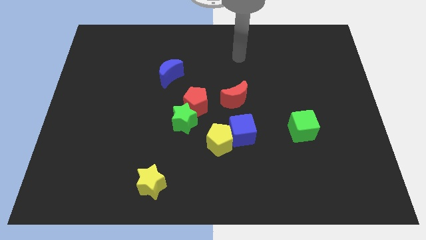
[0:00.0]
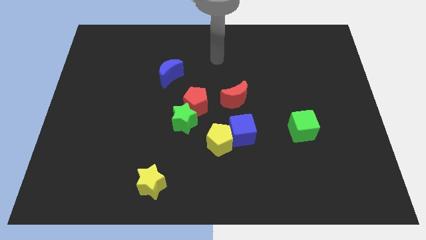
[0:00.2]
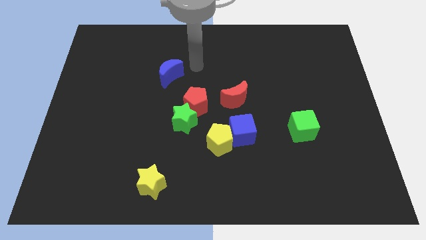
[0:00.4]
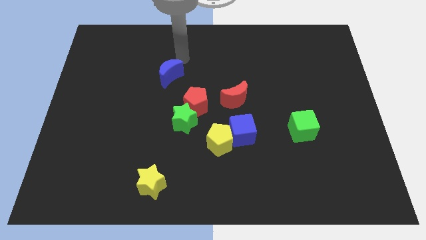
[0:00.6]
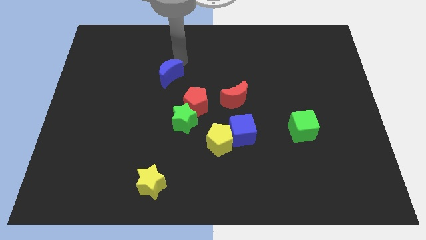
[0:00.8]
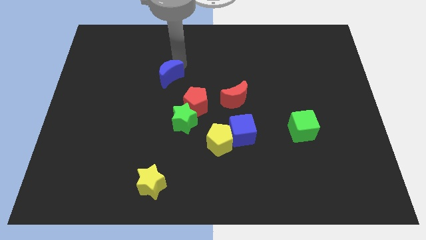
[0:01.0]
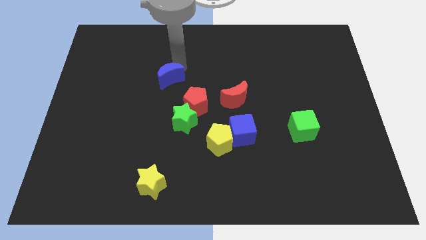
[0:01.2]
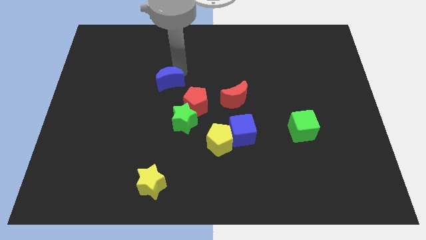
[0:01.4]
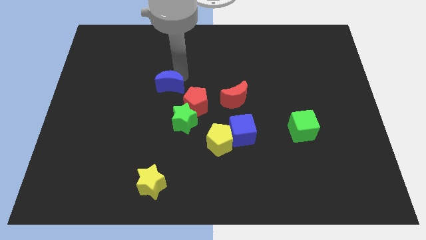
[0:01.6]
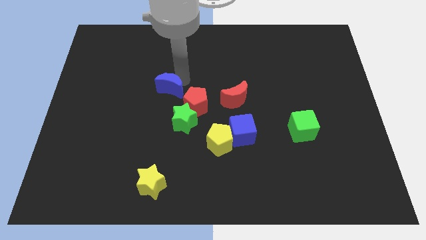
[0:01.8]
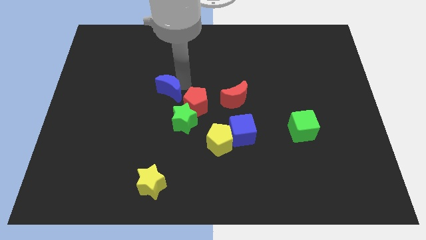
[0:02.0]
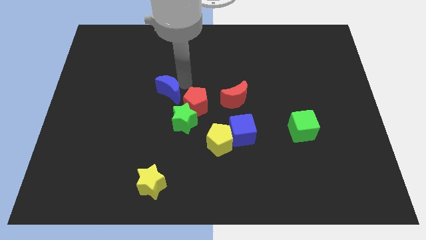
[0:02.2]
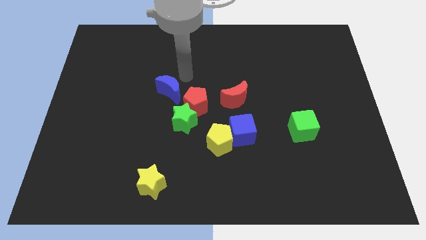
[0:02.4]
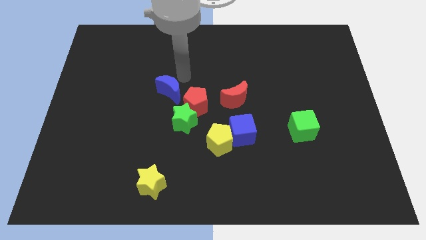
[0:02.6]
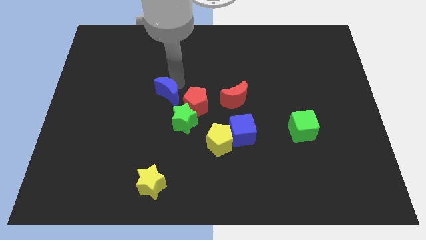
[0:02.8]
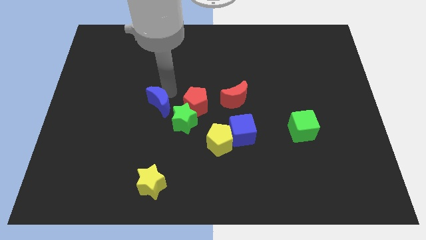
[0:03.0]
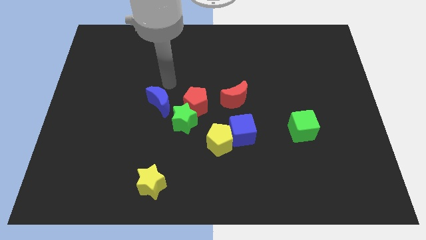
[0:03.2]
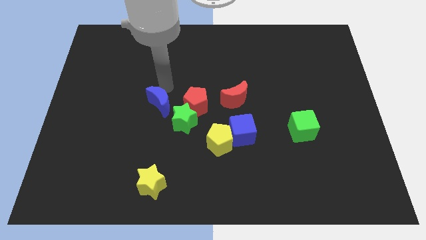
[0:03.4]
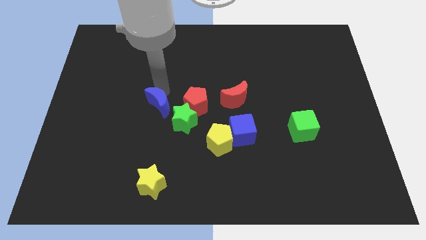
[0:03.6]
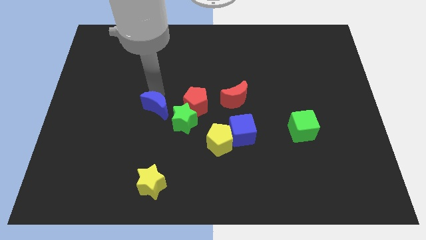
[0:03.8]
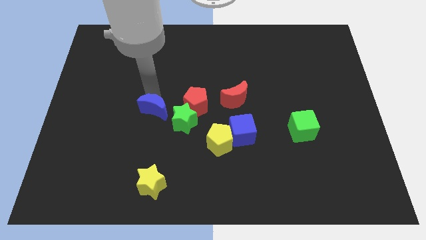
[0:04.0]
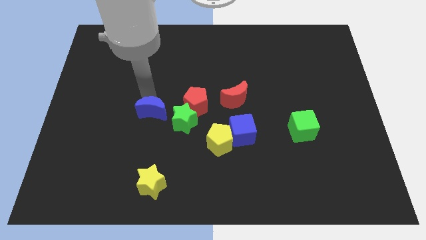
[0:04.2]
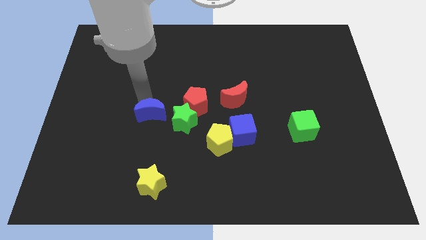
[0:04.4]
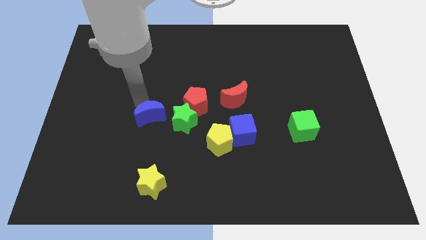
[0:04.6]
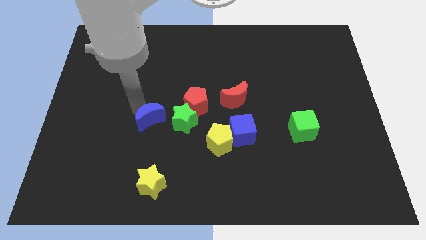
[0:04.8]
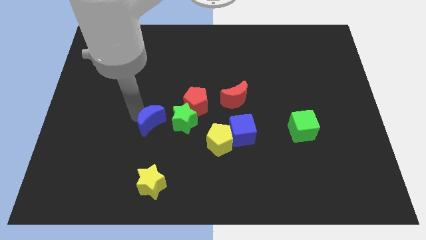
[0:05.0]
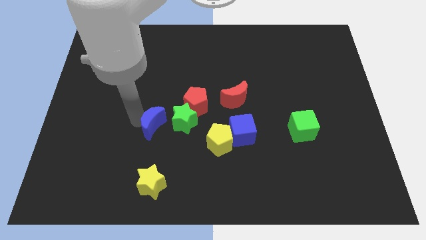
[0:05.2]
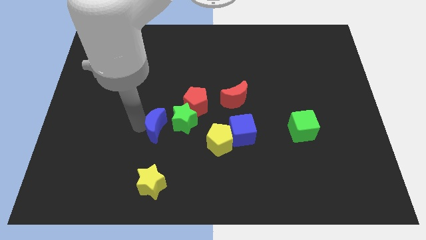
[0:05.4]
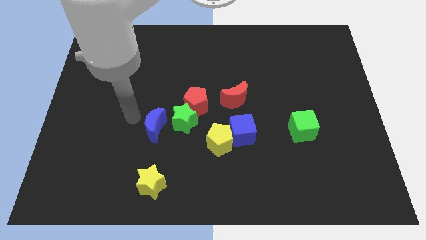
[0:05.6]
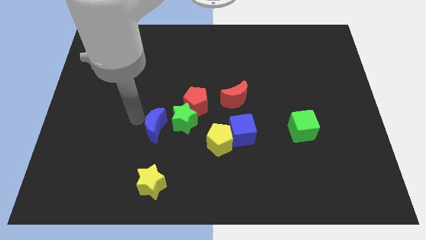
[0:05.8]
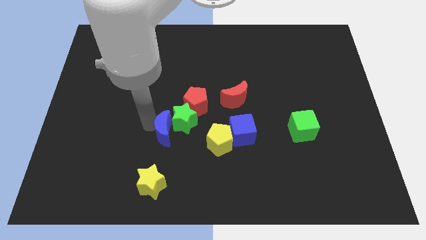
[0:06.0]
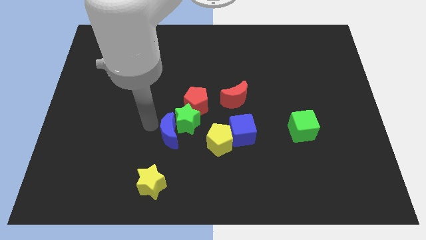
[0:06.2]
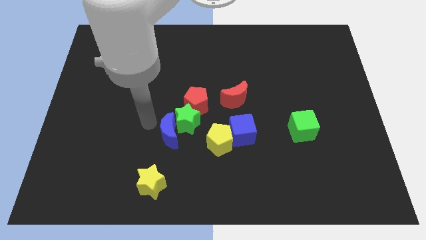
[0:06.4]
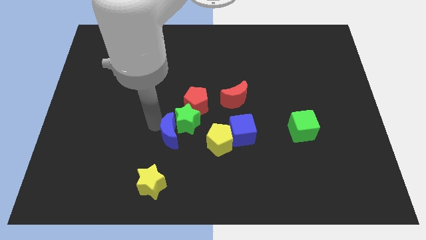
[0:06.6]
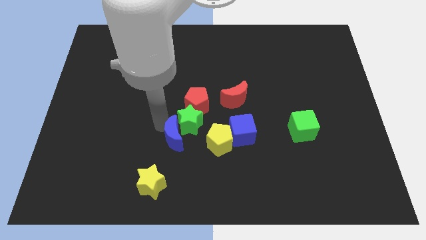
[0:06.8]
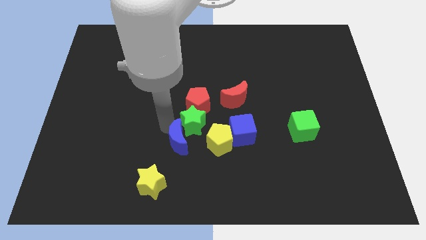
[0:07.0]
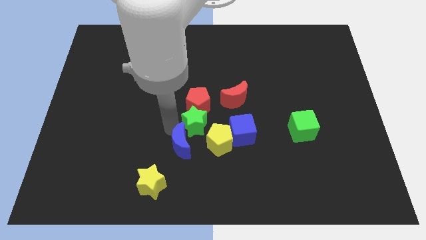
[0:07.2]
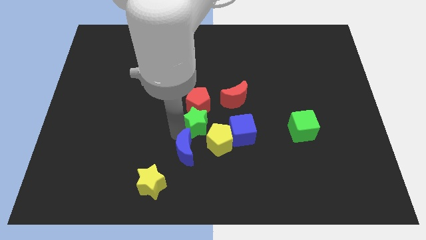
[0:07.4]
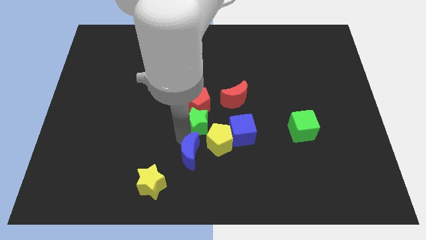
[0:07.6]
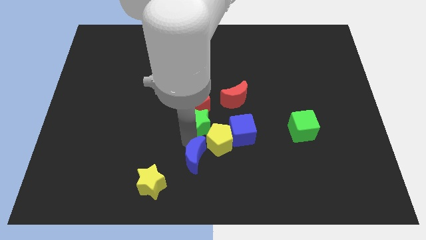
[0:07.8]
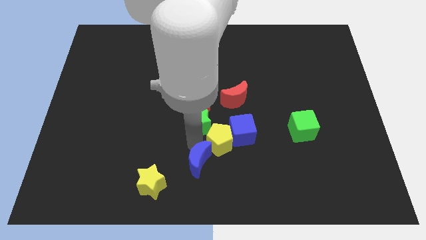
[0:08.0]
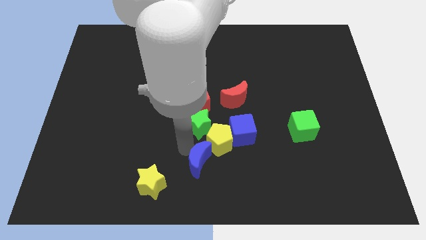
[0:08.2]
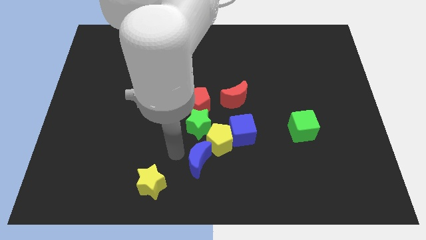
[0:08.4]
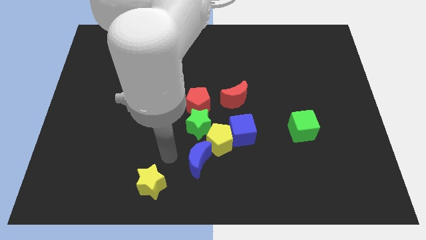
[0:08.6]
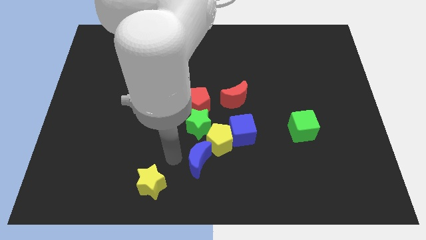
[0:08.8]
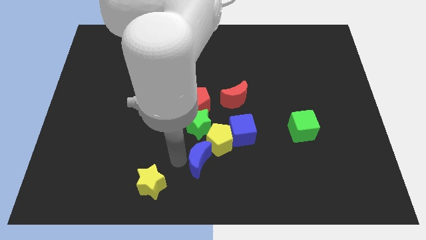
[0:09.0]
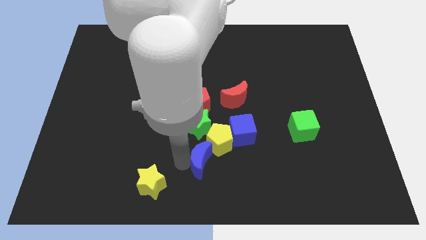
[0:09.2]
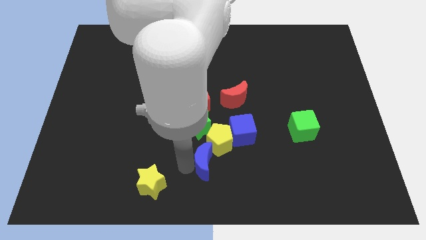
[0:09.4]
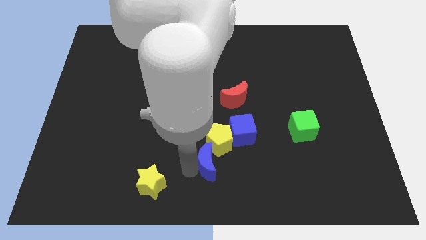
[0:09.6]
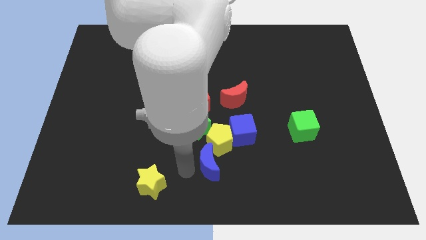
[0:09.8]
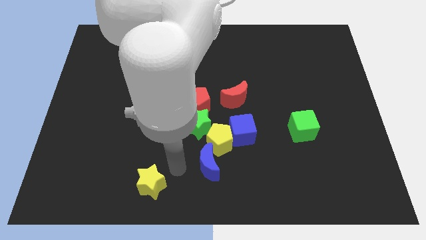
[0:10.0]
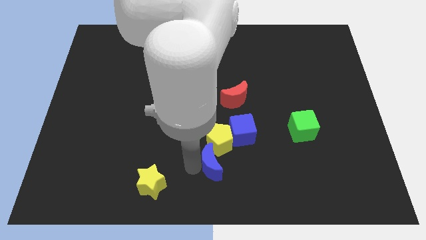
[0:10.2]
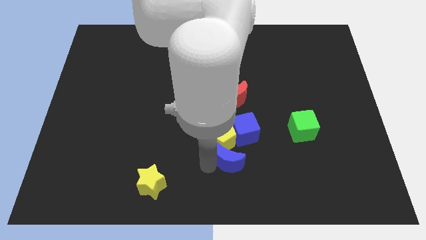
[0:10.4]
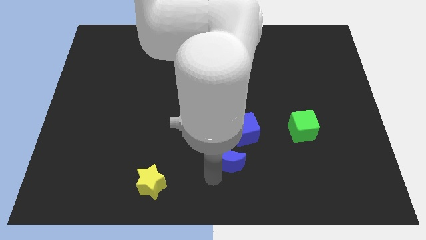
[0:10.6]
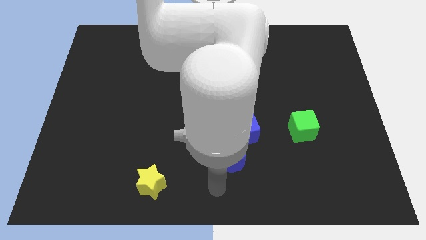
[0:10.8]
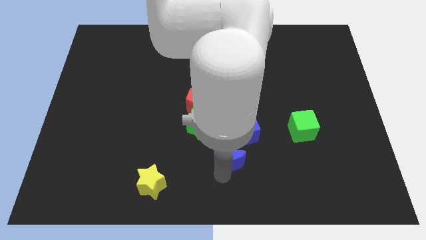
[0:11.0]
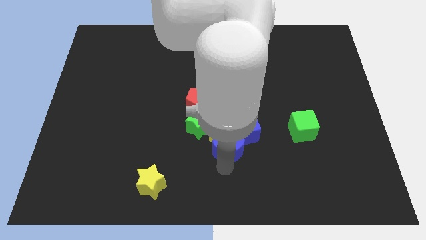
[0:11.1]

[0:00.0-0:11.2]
slide the blue moon to the bottom of the red moon

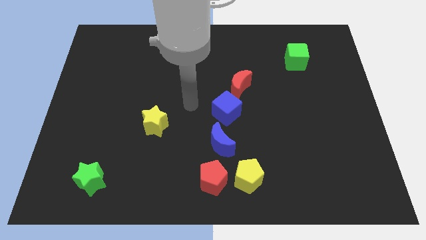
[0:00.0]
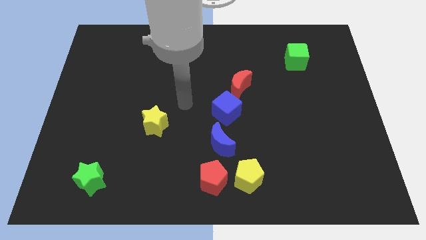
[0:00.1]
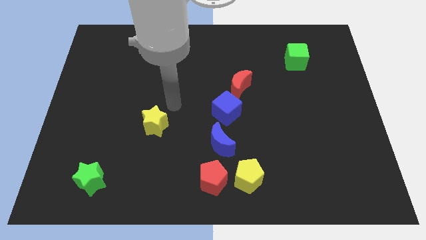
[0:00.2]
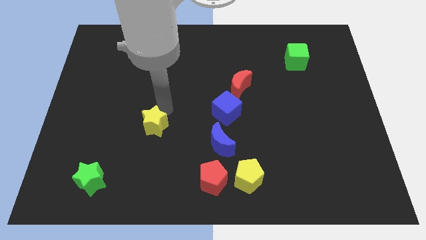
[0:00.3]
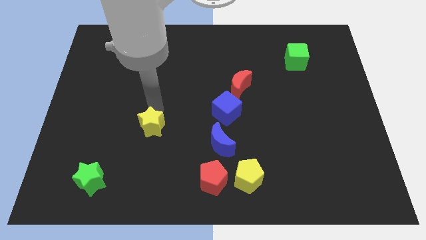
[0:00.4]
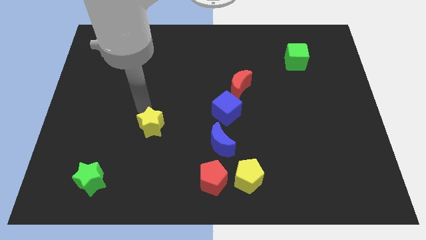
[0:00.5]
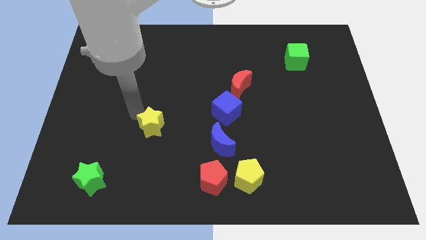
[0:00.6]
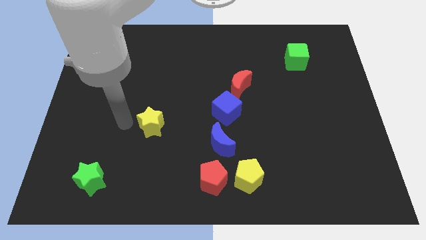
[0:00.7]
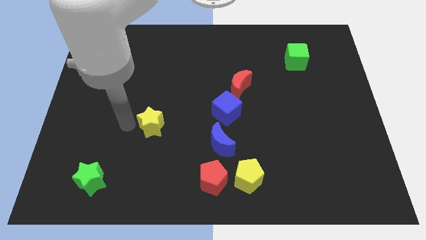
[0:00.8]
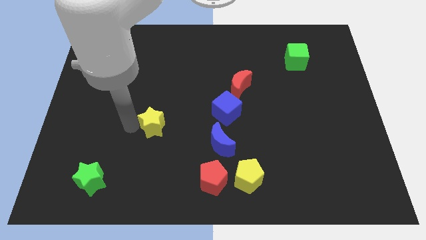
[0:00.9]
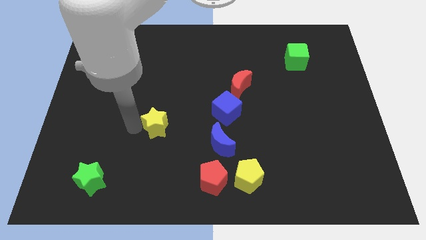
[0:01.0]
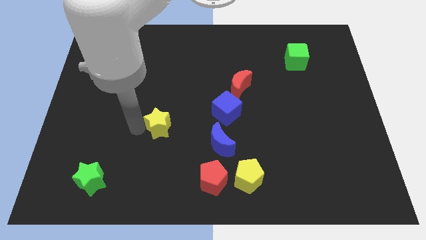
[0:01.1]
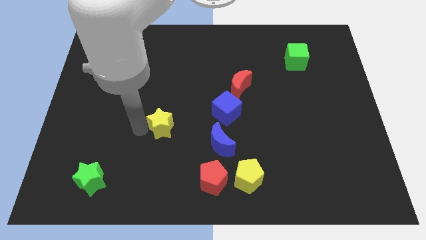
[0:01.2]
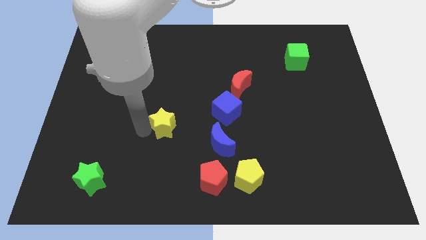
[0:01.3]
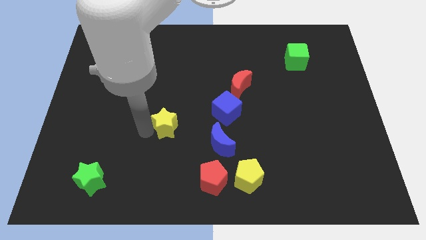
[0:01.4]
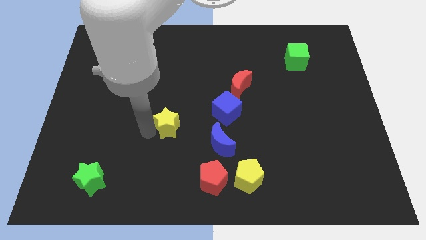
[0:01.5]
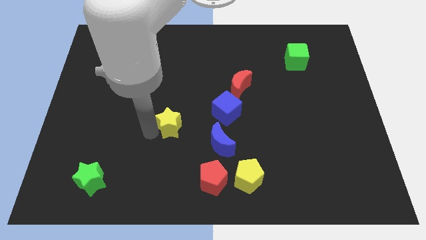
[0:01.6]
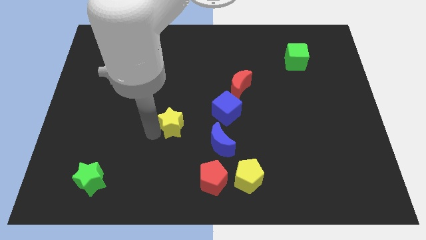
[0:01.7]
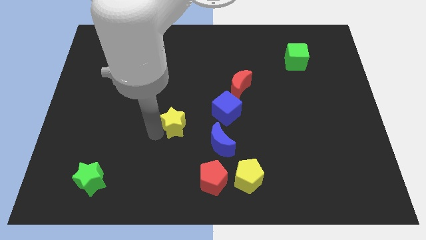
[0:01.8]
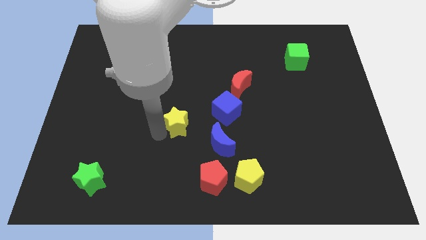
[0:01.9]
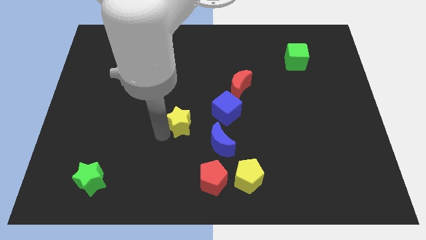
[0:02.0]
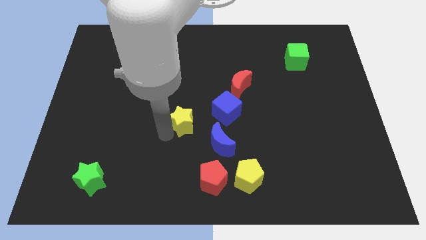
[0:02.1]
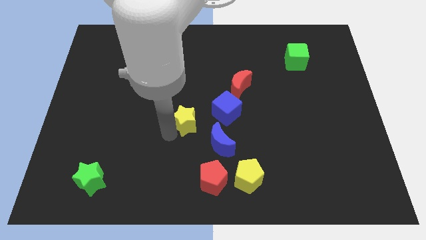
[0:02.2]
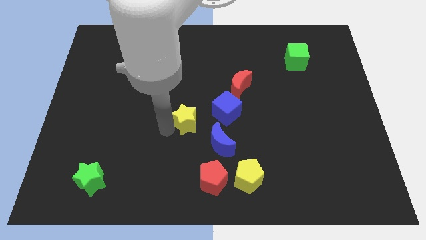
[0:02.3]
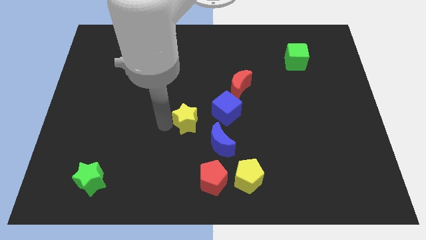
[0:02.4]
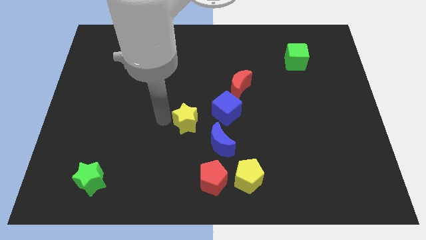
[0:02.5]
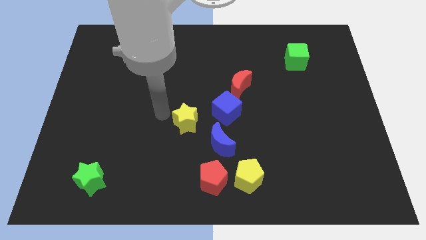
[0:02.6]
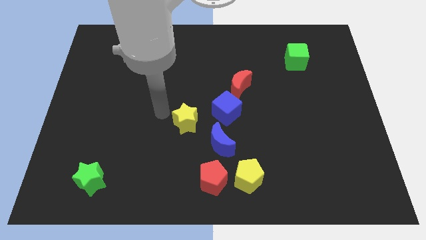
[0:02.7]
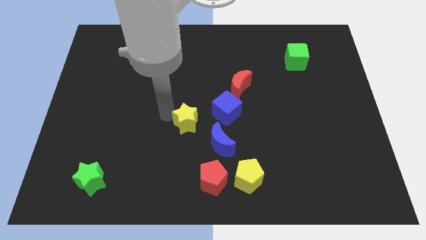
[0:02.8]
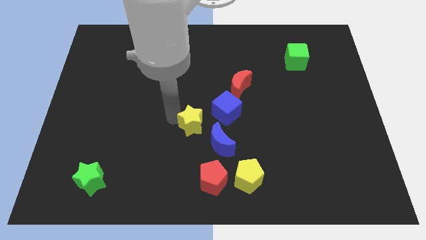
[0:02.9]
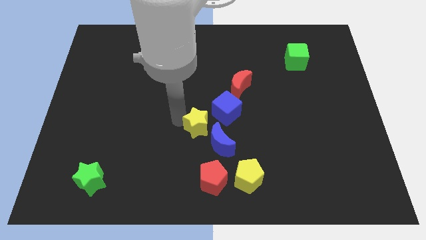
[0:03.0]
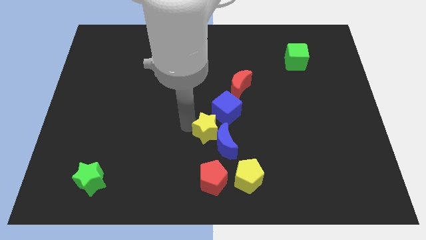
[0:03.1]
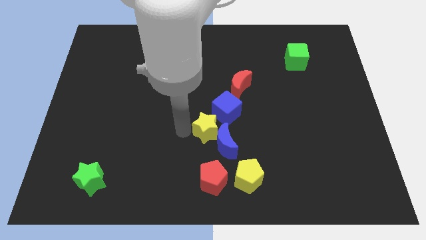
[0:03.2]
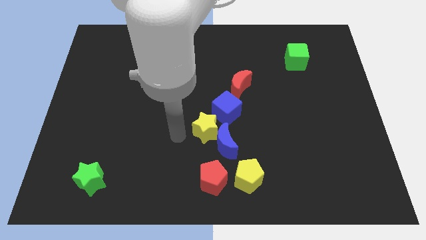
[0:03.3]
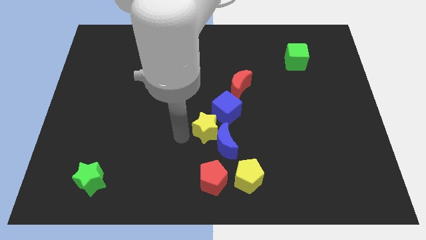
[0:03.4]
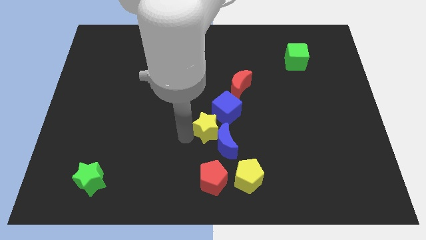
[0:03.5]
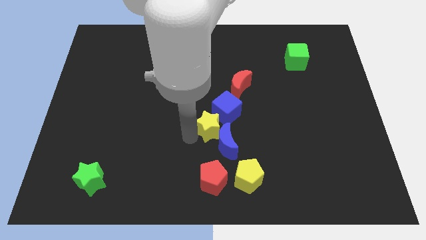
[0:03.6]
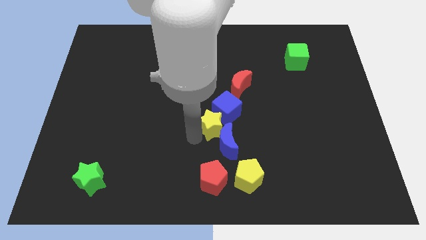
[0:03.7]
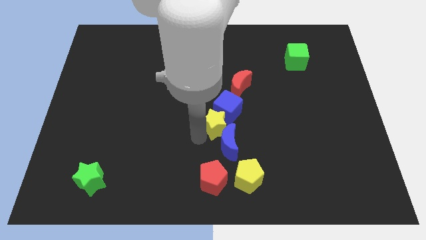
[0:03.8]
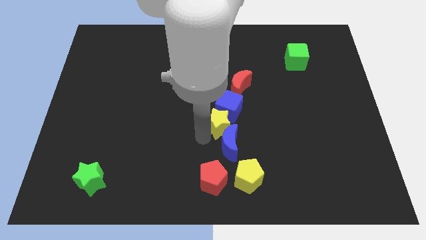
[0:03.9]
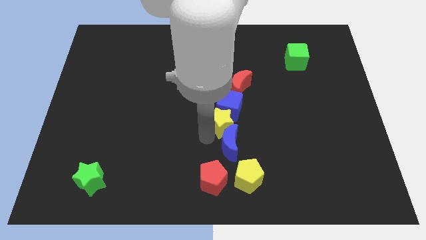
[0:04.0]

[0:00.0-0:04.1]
slide the yellow star to the top right of the blue moon
